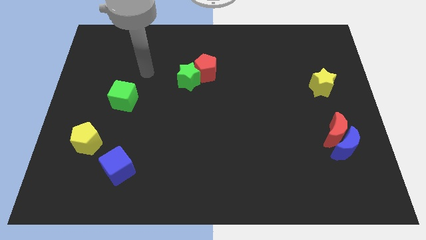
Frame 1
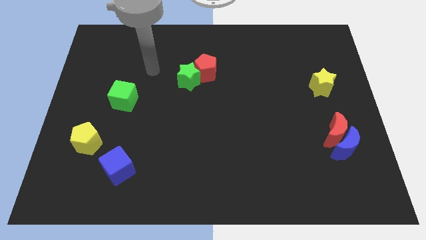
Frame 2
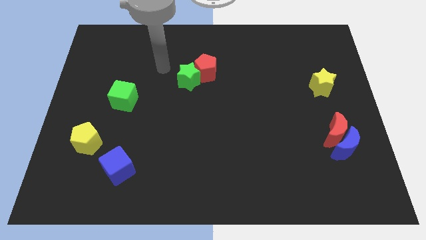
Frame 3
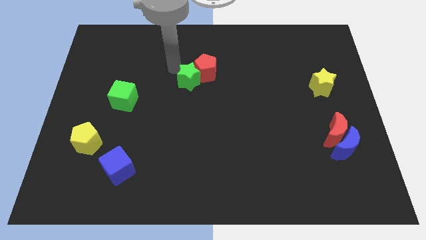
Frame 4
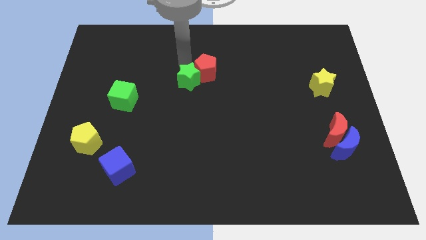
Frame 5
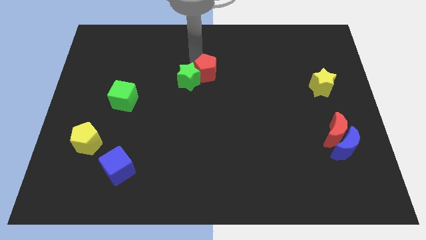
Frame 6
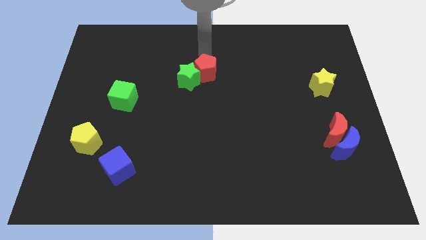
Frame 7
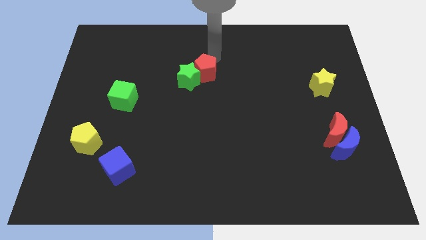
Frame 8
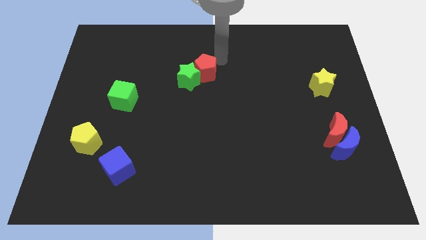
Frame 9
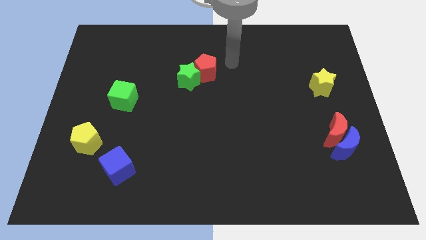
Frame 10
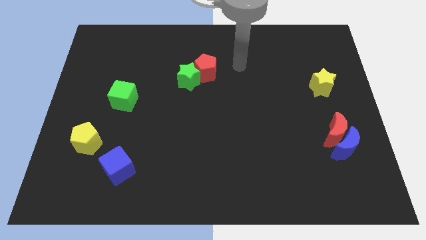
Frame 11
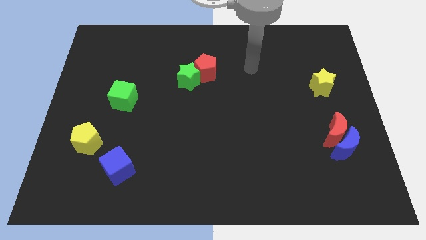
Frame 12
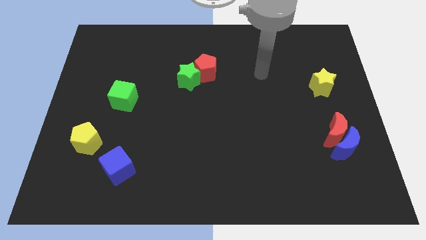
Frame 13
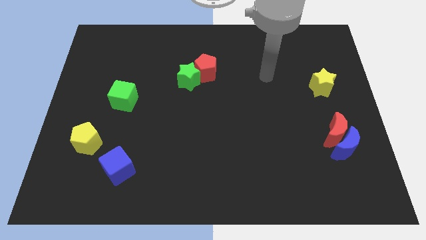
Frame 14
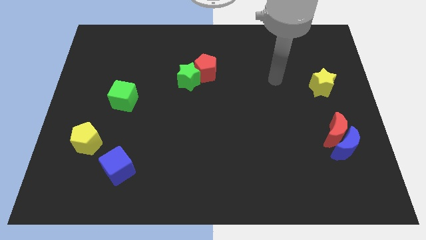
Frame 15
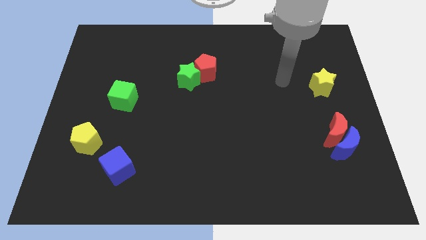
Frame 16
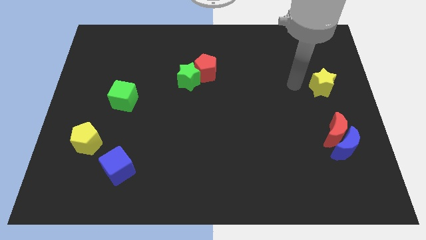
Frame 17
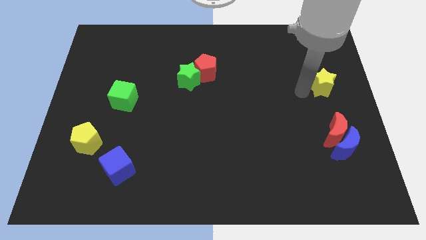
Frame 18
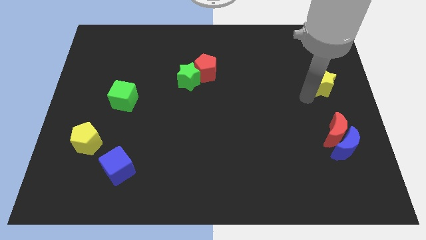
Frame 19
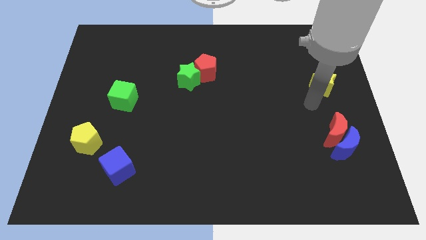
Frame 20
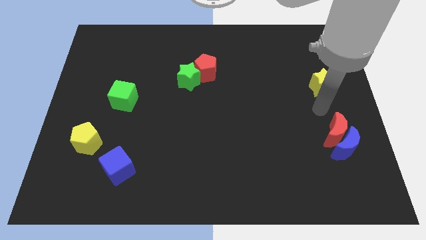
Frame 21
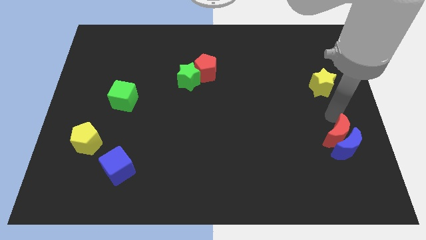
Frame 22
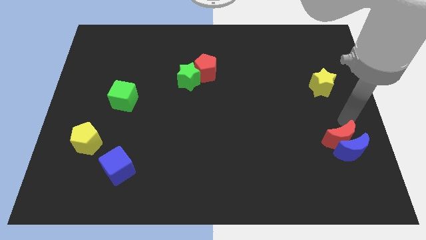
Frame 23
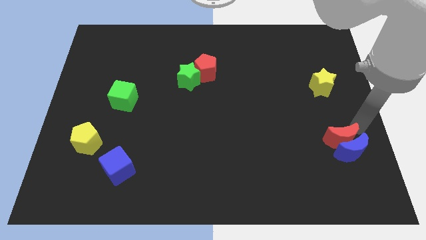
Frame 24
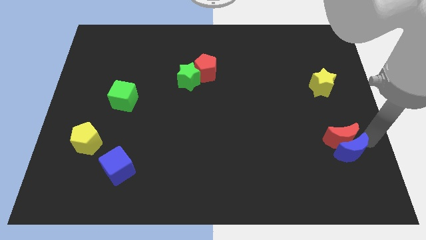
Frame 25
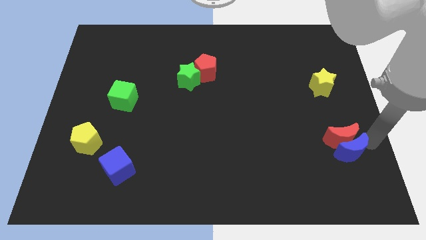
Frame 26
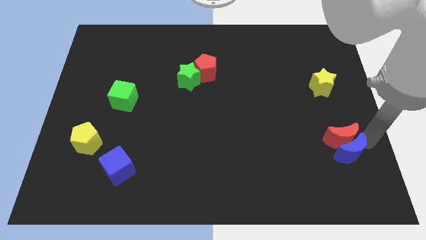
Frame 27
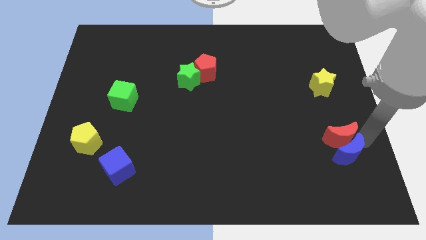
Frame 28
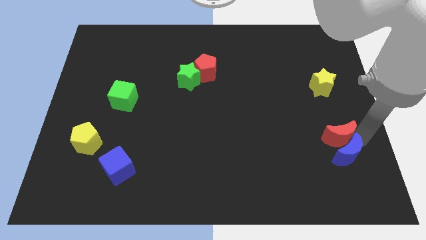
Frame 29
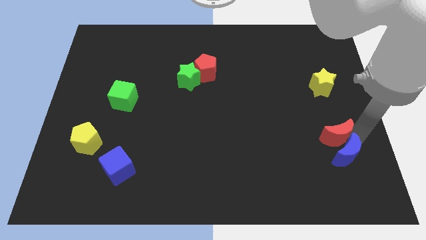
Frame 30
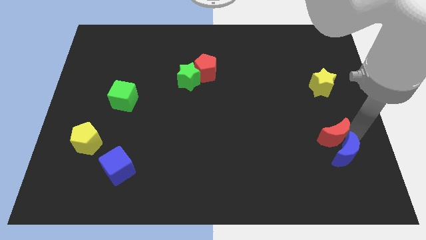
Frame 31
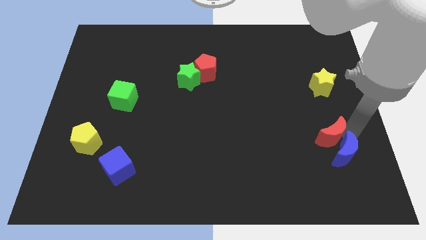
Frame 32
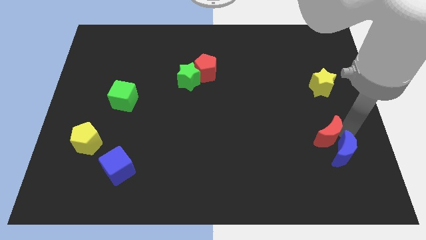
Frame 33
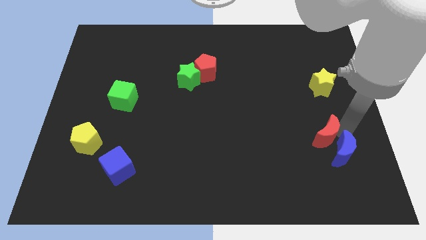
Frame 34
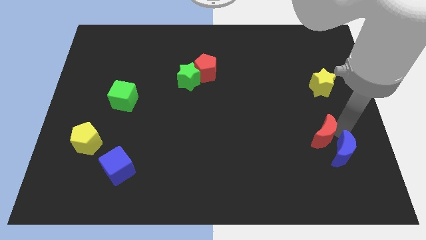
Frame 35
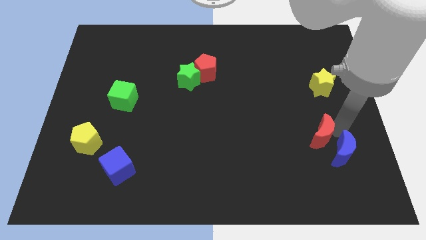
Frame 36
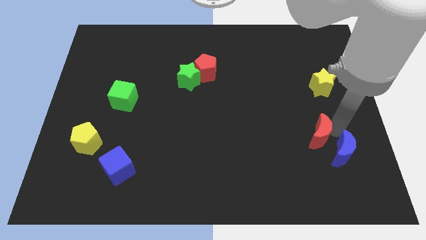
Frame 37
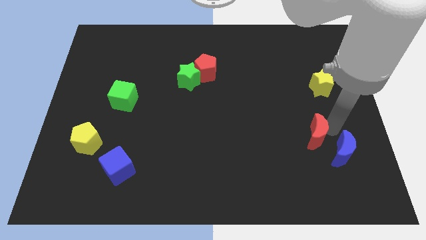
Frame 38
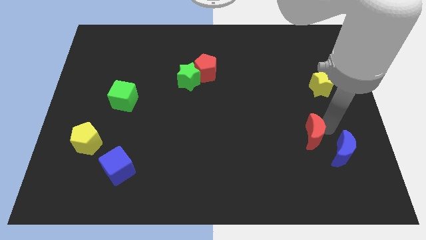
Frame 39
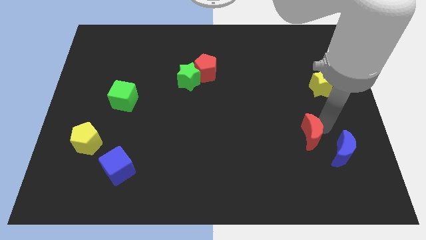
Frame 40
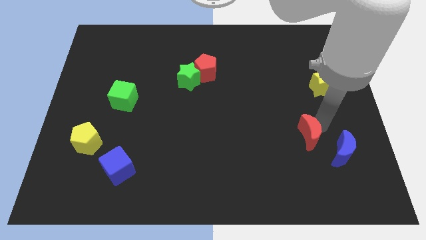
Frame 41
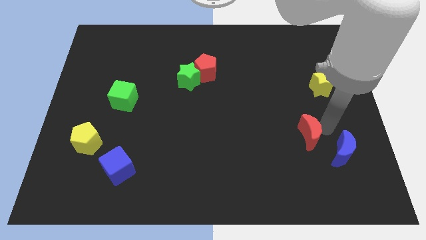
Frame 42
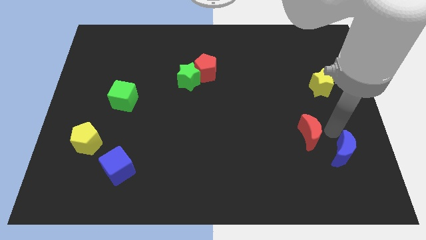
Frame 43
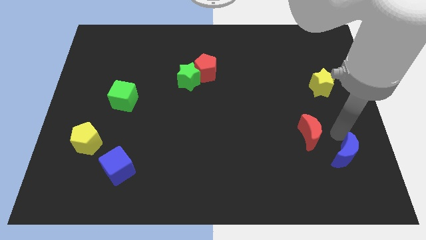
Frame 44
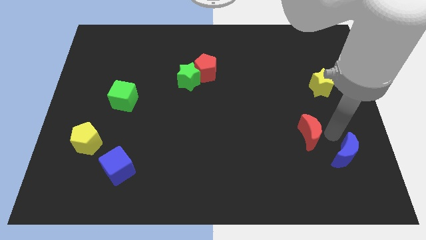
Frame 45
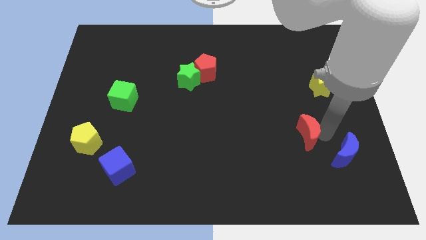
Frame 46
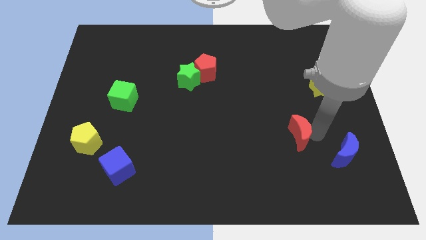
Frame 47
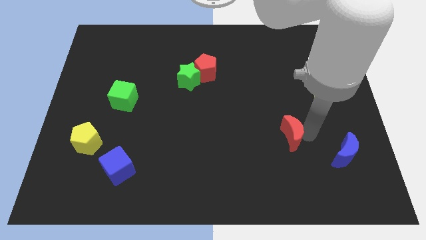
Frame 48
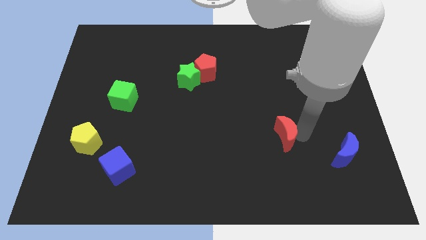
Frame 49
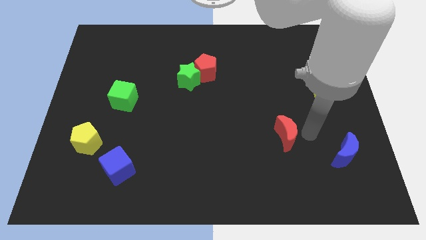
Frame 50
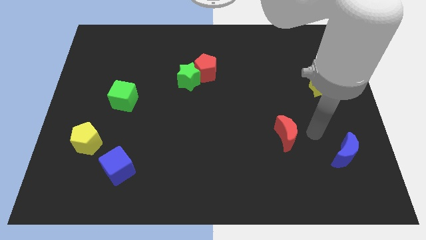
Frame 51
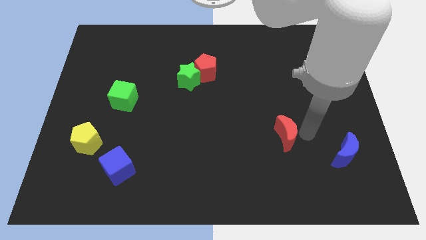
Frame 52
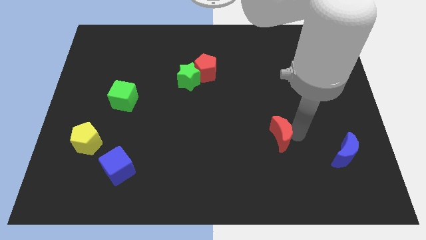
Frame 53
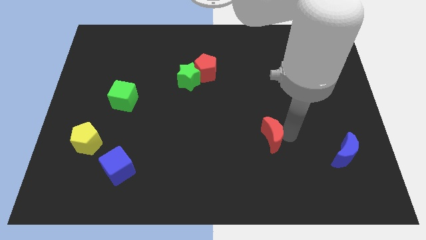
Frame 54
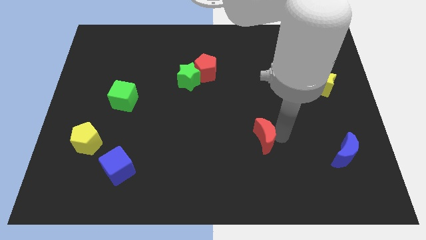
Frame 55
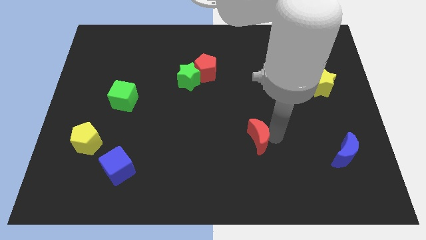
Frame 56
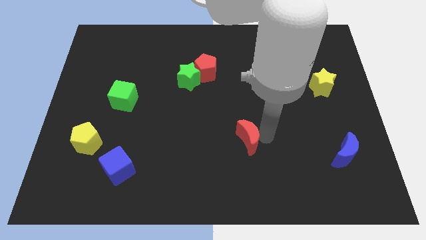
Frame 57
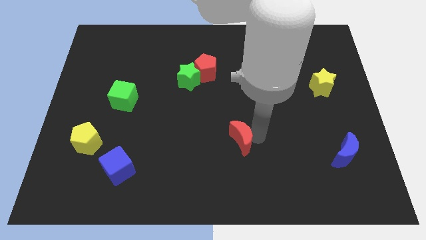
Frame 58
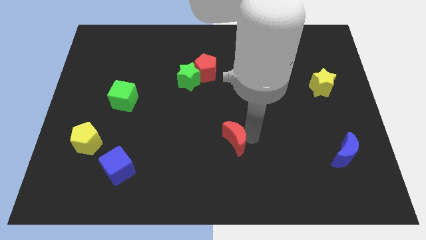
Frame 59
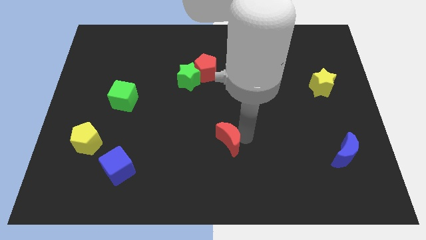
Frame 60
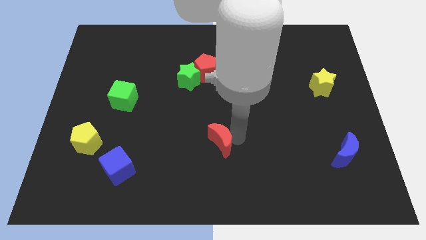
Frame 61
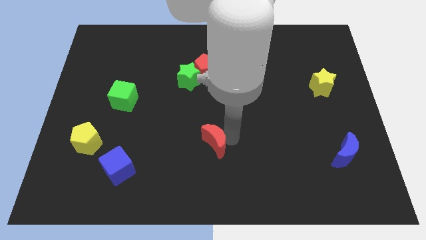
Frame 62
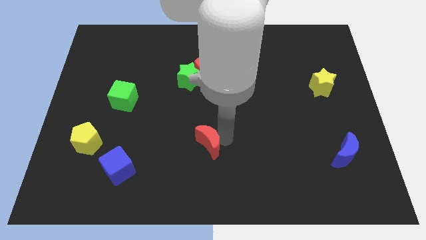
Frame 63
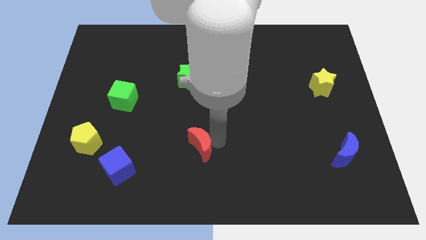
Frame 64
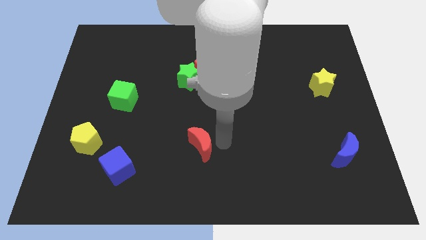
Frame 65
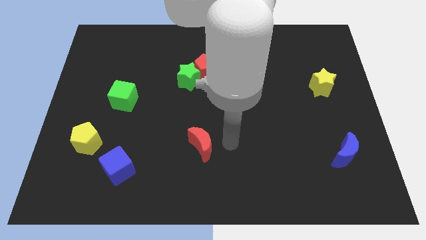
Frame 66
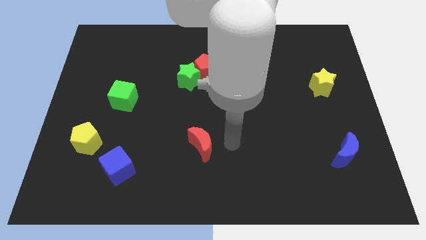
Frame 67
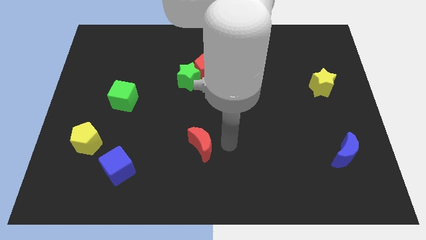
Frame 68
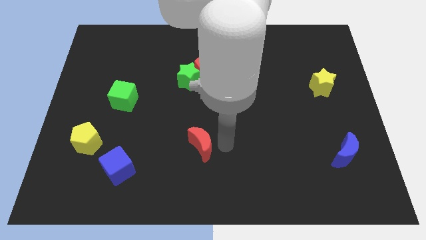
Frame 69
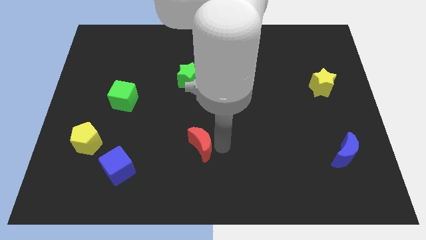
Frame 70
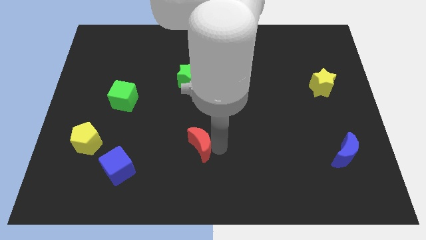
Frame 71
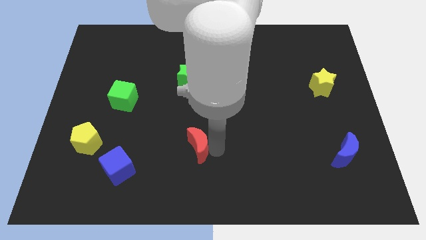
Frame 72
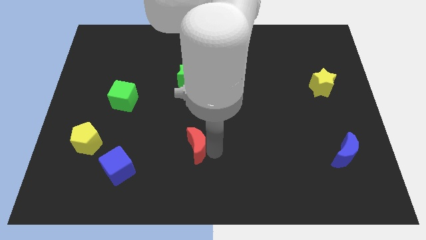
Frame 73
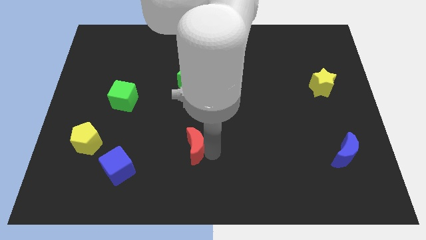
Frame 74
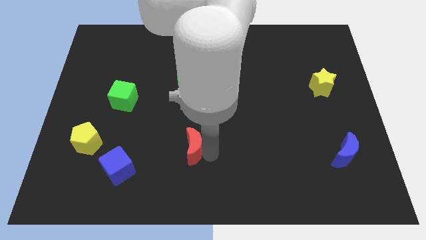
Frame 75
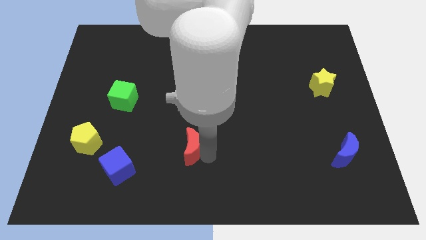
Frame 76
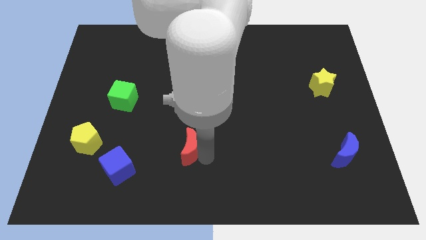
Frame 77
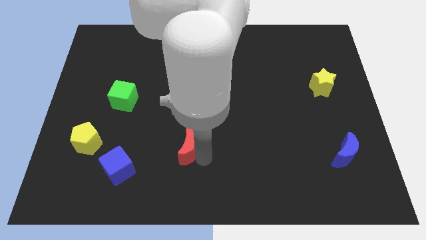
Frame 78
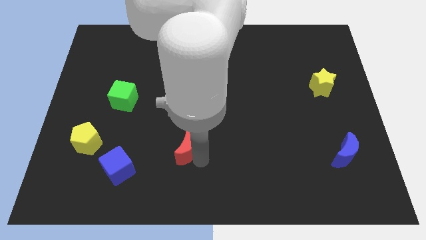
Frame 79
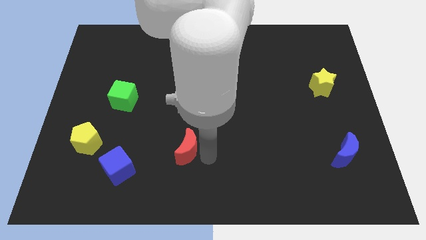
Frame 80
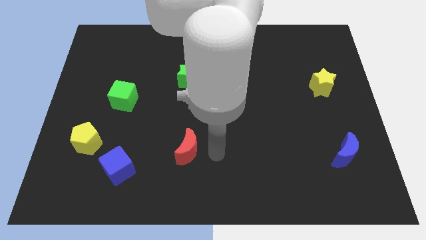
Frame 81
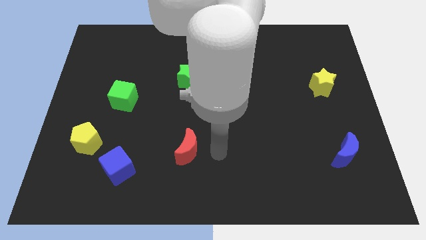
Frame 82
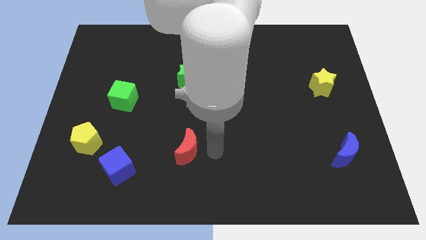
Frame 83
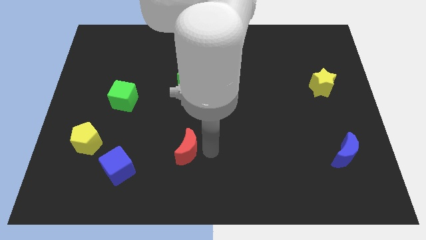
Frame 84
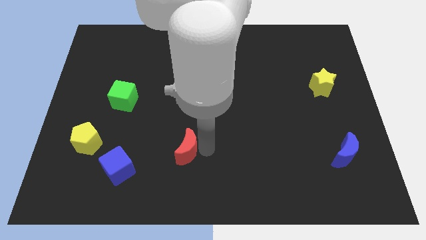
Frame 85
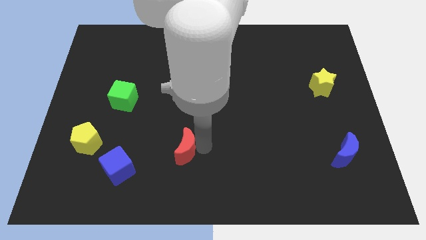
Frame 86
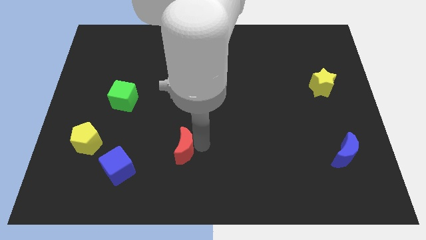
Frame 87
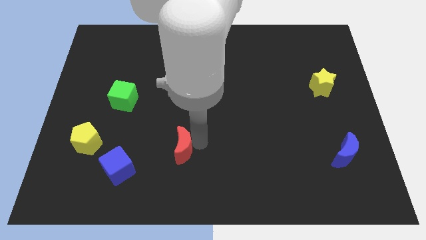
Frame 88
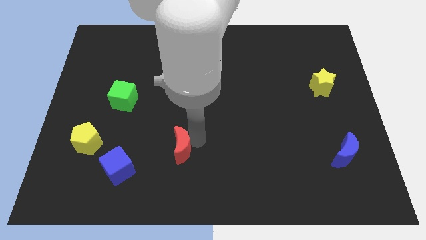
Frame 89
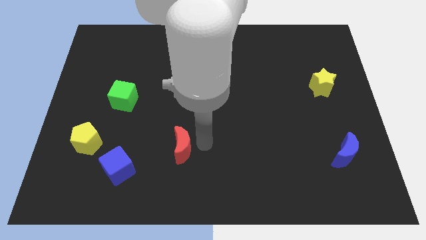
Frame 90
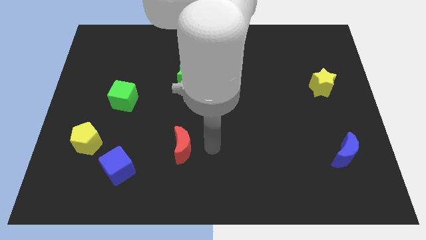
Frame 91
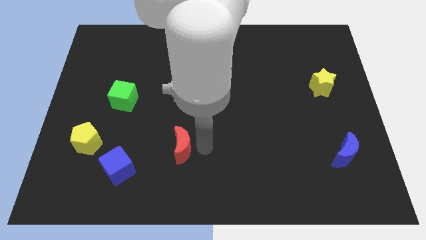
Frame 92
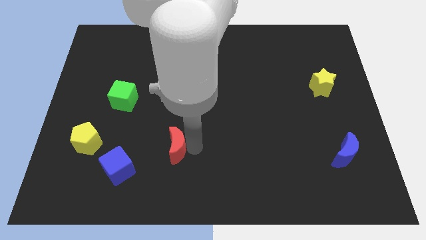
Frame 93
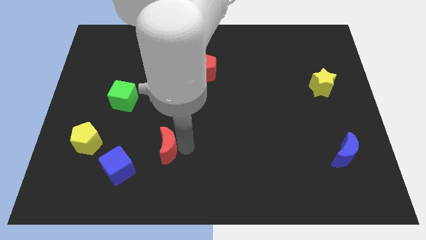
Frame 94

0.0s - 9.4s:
push the red moon to the top right of the blue cube
